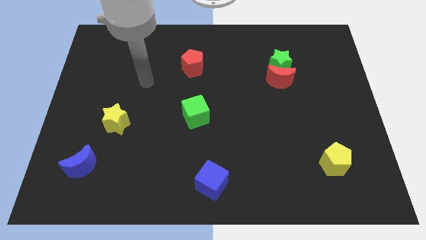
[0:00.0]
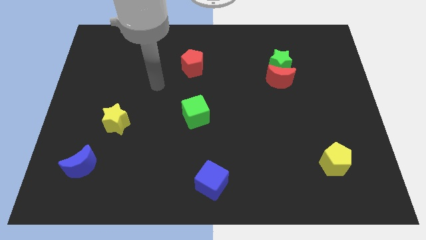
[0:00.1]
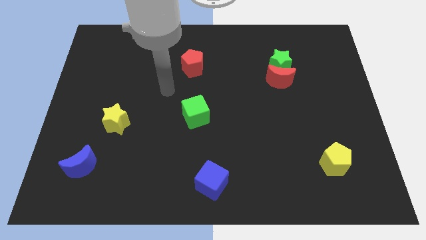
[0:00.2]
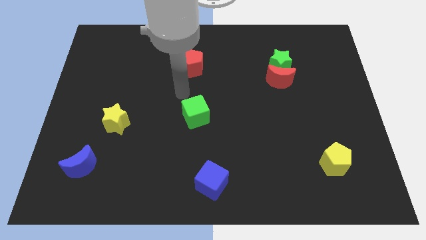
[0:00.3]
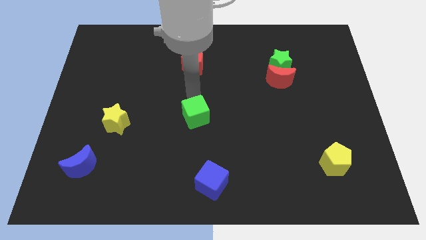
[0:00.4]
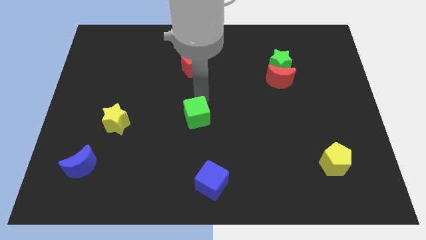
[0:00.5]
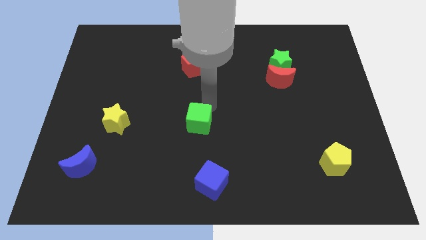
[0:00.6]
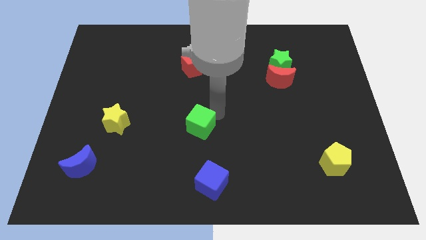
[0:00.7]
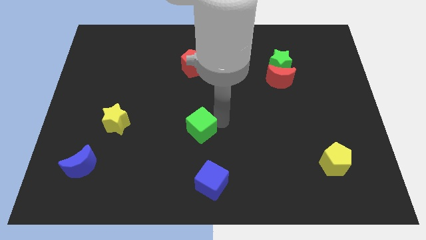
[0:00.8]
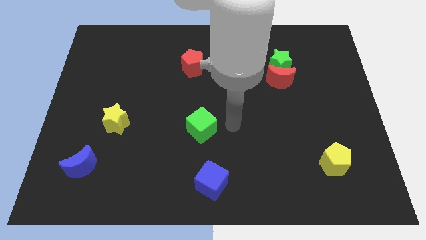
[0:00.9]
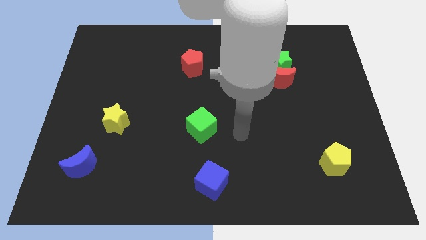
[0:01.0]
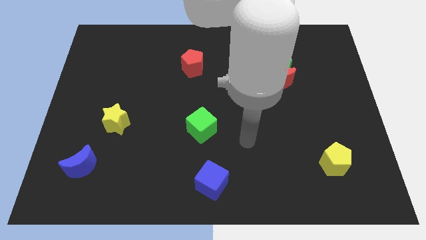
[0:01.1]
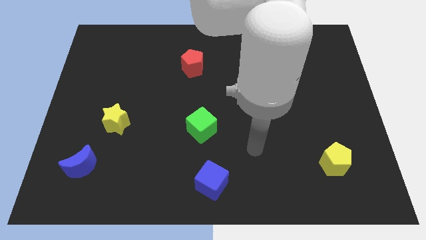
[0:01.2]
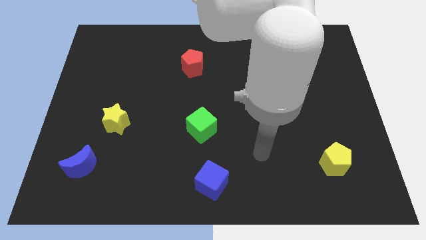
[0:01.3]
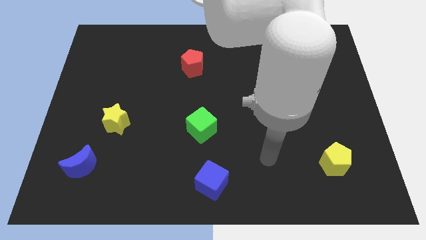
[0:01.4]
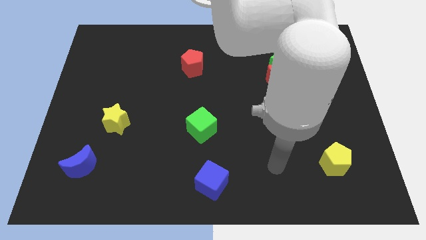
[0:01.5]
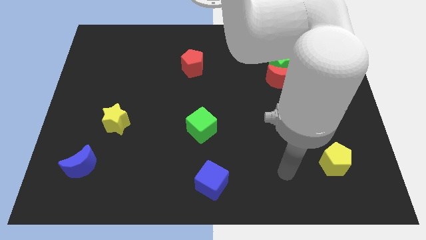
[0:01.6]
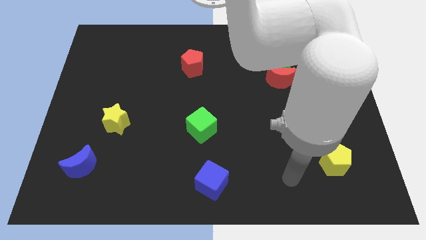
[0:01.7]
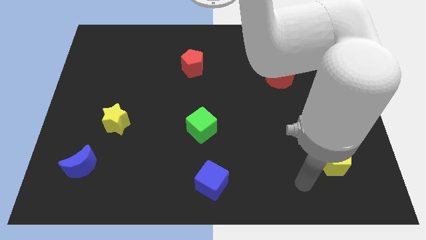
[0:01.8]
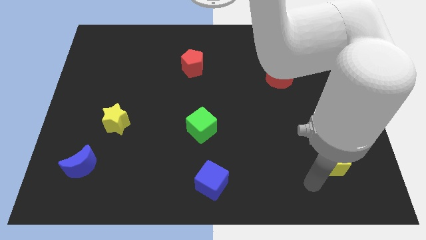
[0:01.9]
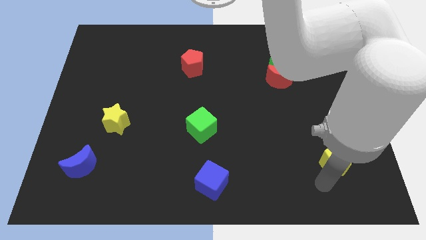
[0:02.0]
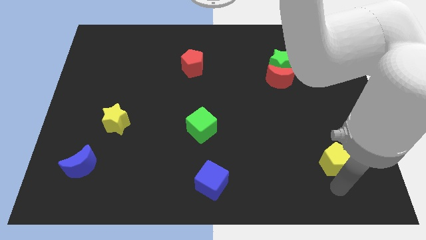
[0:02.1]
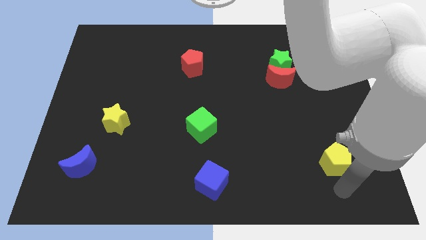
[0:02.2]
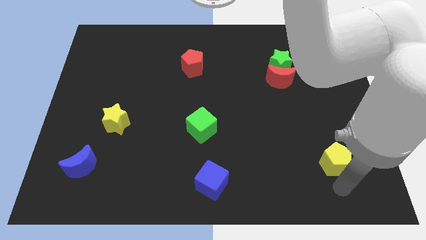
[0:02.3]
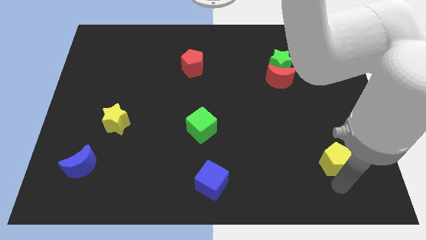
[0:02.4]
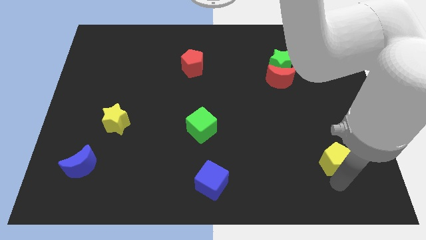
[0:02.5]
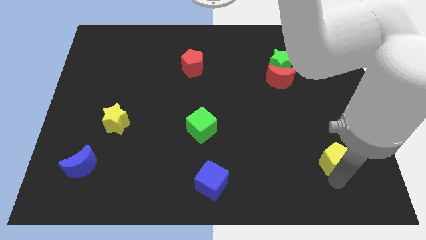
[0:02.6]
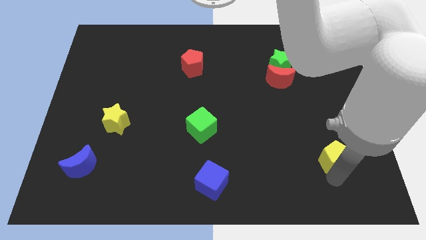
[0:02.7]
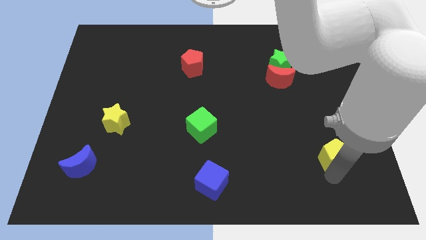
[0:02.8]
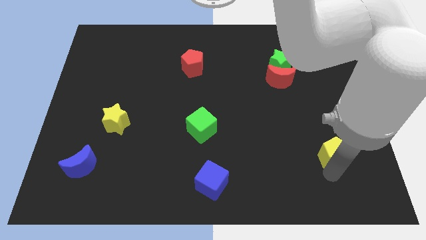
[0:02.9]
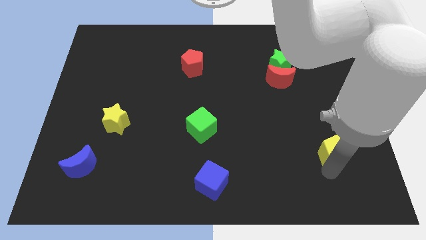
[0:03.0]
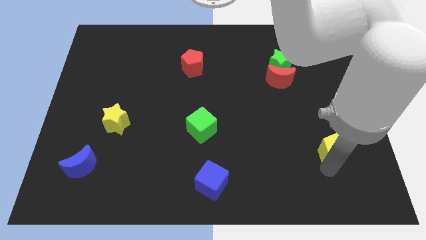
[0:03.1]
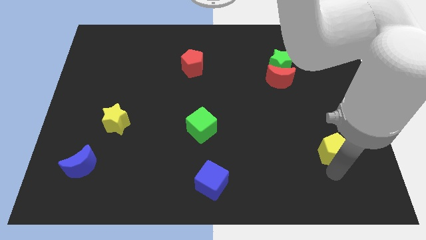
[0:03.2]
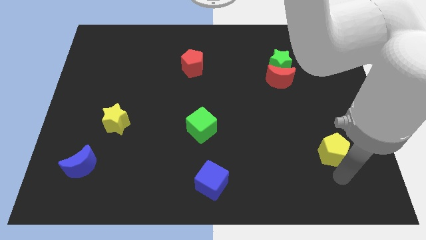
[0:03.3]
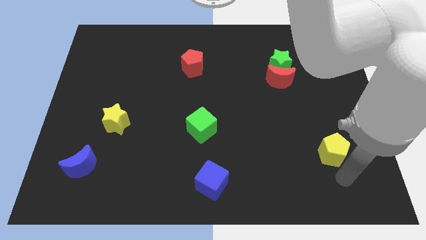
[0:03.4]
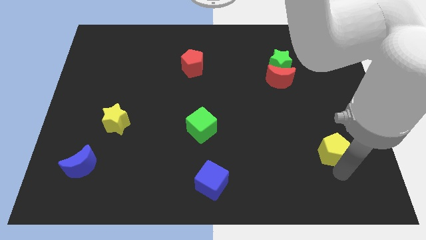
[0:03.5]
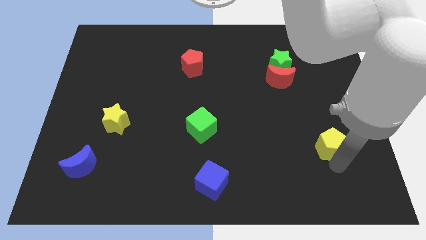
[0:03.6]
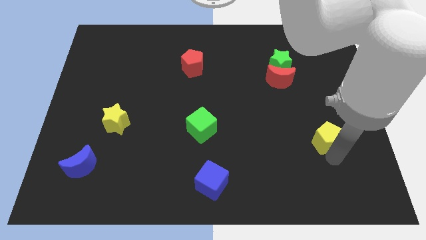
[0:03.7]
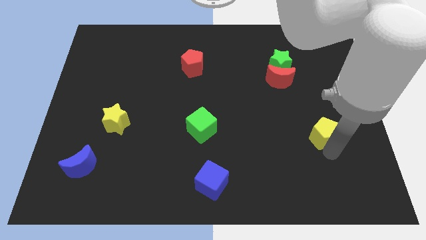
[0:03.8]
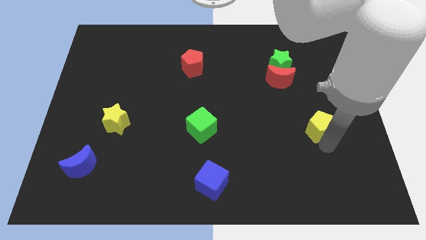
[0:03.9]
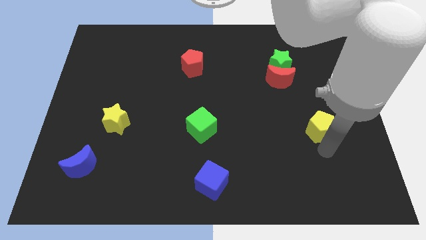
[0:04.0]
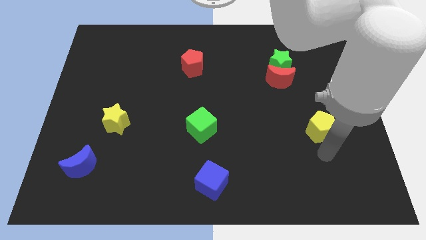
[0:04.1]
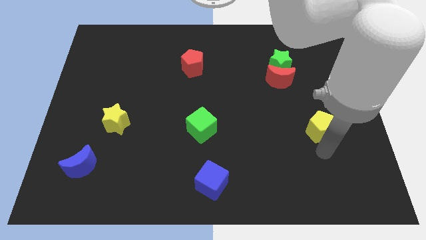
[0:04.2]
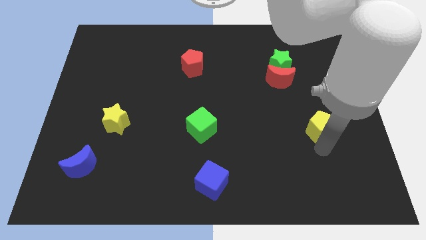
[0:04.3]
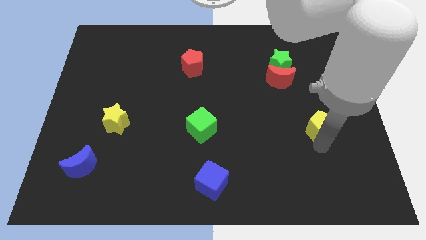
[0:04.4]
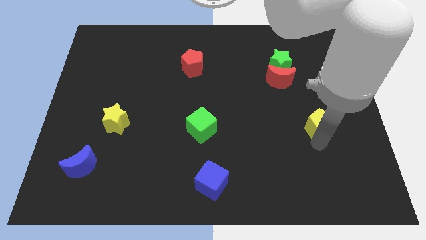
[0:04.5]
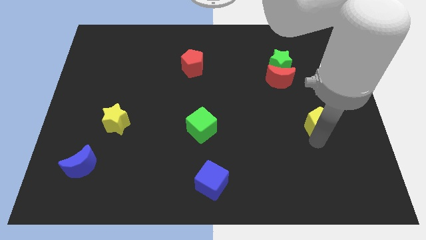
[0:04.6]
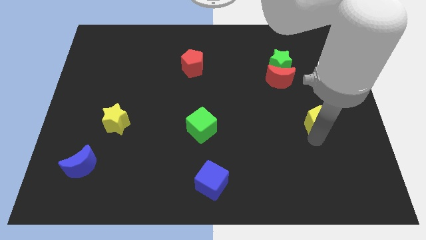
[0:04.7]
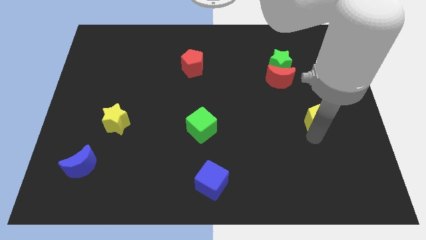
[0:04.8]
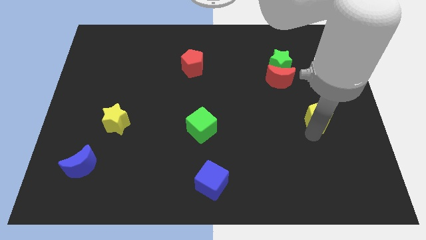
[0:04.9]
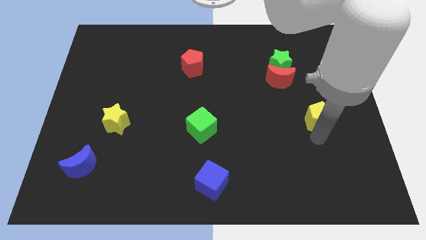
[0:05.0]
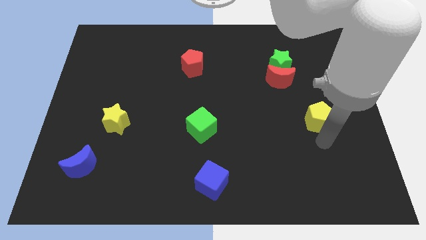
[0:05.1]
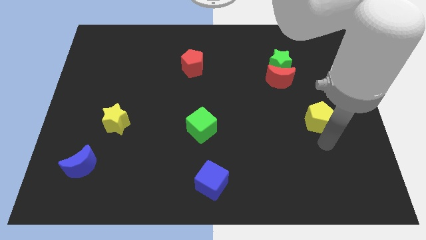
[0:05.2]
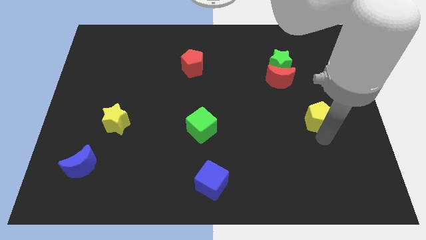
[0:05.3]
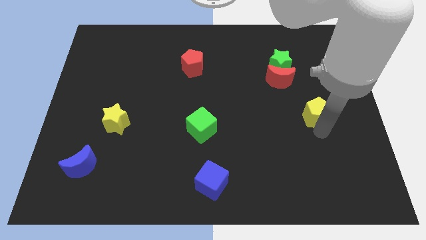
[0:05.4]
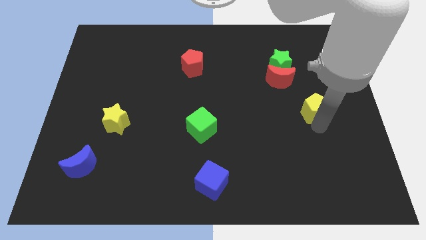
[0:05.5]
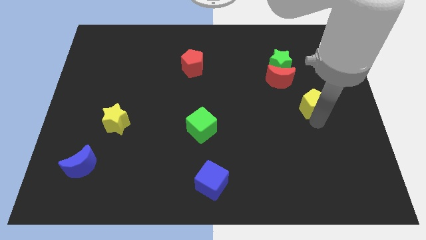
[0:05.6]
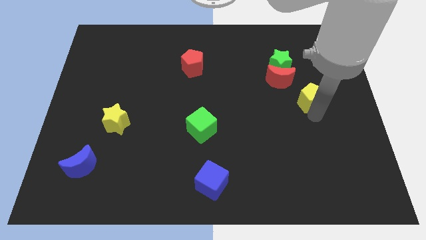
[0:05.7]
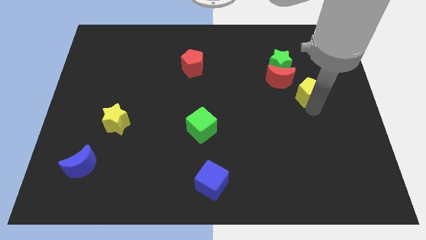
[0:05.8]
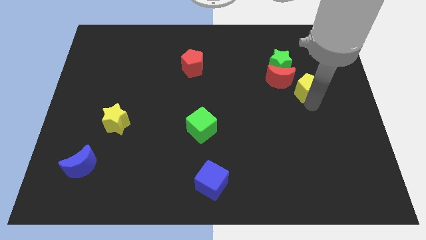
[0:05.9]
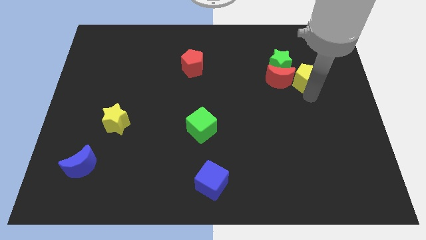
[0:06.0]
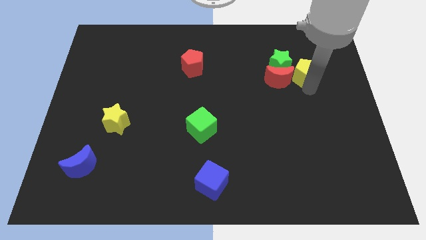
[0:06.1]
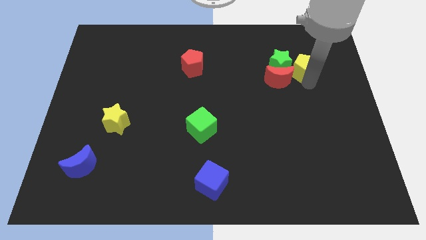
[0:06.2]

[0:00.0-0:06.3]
move the yellow pentagon to the green star

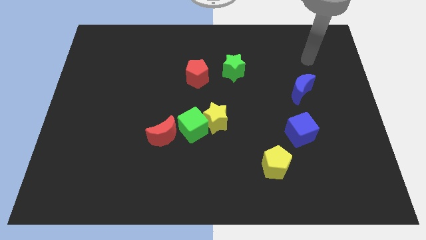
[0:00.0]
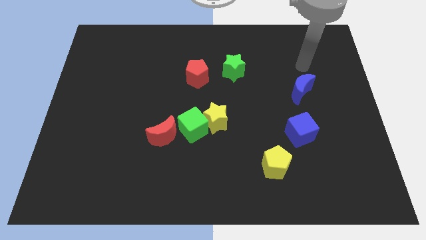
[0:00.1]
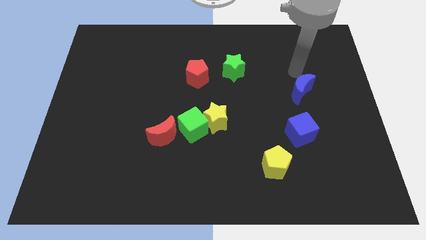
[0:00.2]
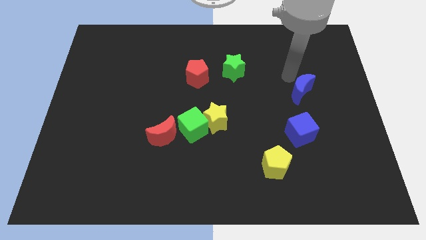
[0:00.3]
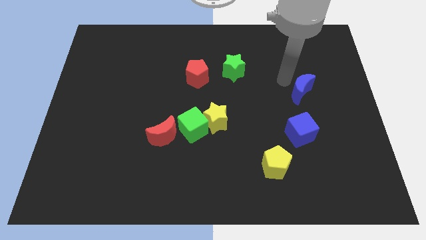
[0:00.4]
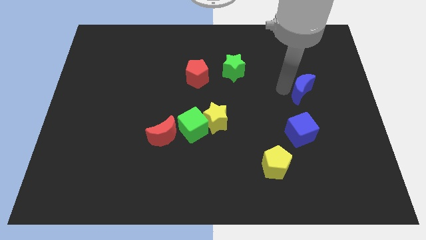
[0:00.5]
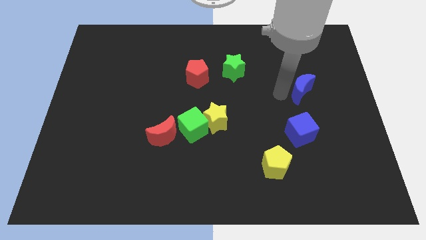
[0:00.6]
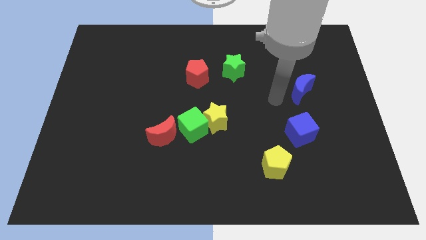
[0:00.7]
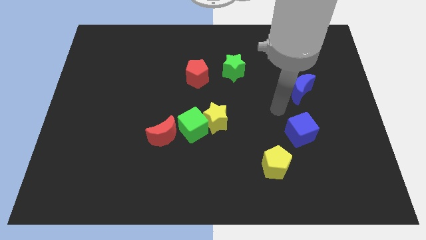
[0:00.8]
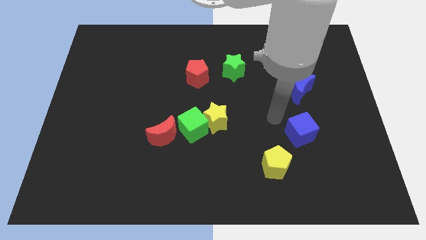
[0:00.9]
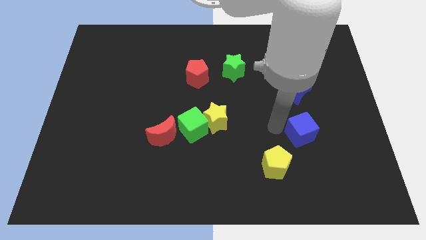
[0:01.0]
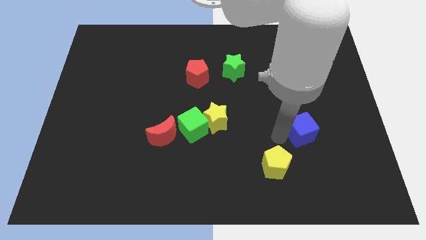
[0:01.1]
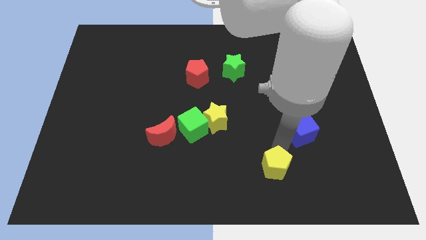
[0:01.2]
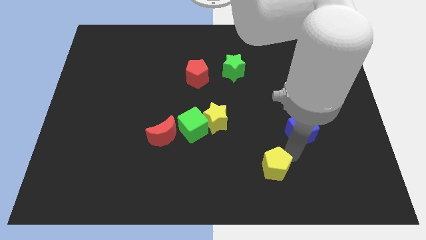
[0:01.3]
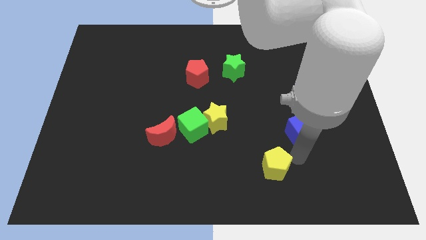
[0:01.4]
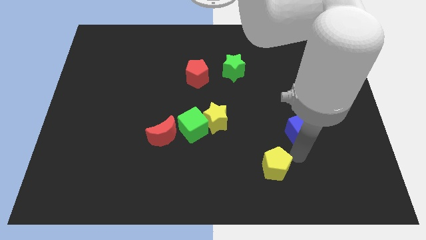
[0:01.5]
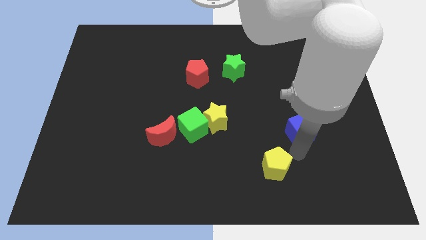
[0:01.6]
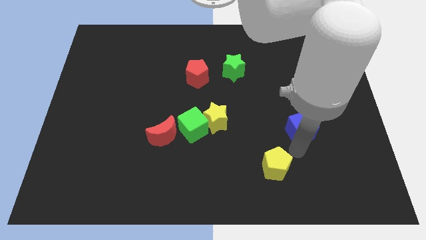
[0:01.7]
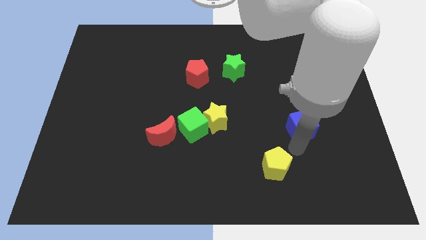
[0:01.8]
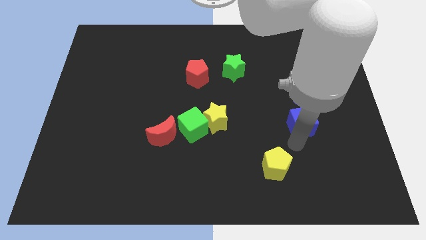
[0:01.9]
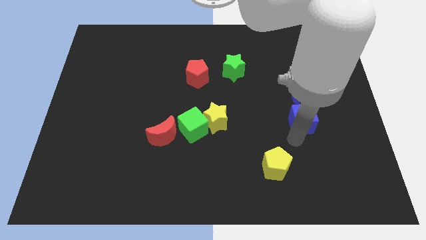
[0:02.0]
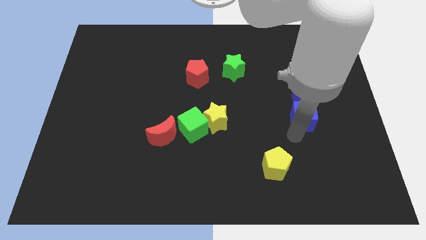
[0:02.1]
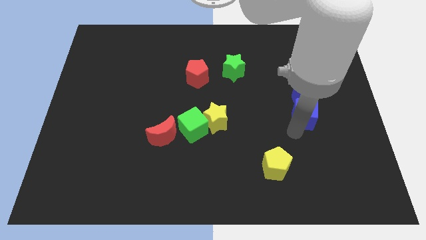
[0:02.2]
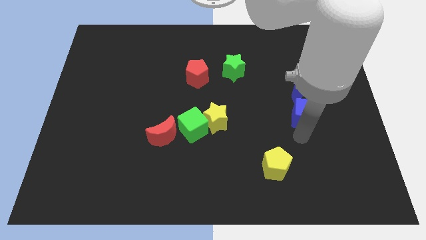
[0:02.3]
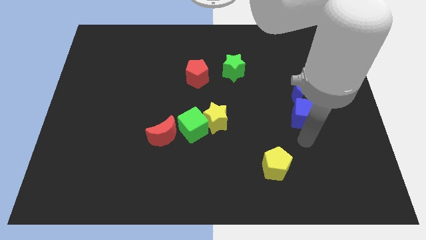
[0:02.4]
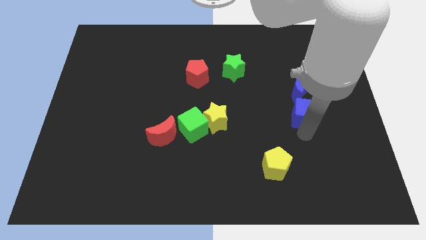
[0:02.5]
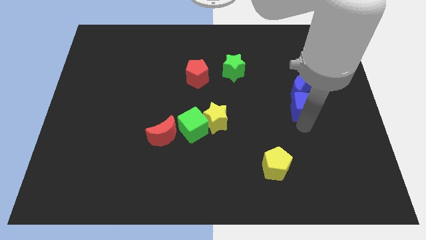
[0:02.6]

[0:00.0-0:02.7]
slide the blue cube close to the blue moon
